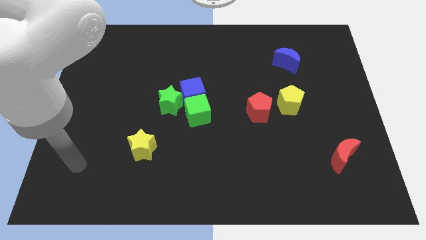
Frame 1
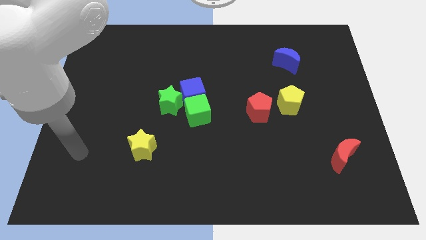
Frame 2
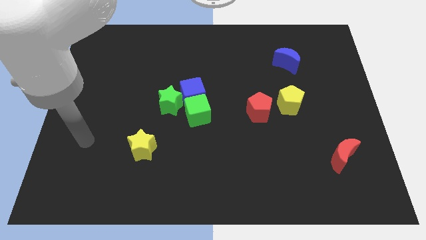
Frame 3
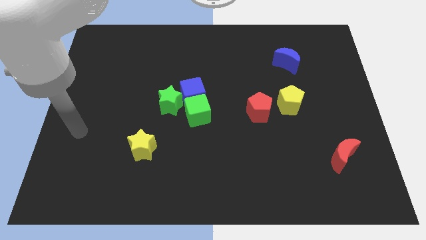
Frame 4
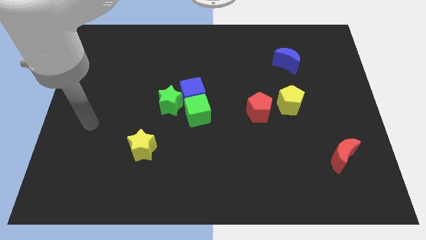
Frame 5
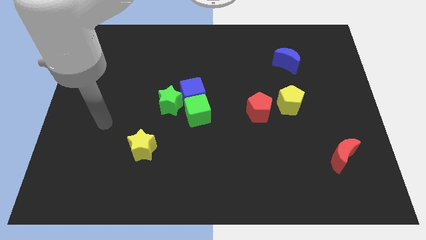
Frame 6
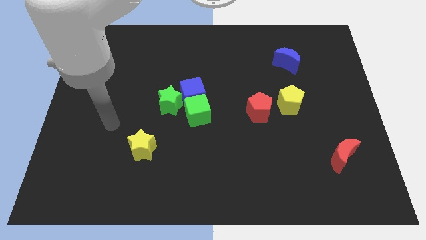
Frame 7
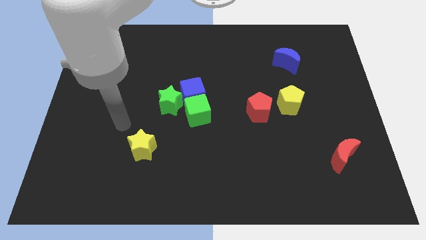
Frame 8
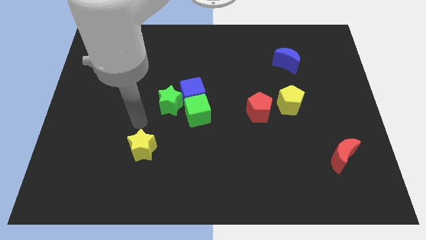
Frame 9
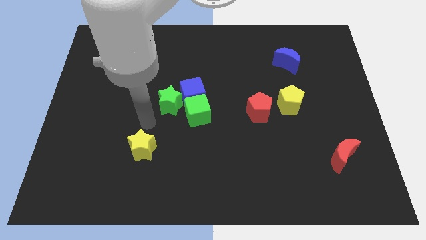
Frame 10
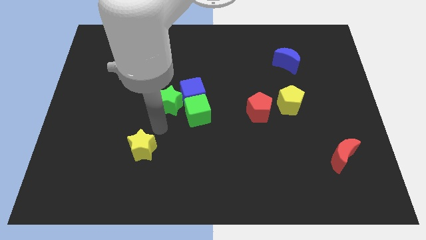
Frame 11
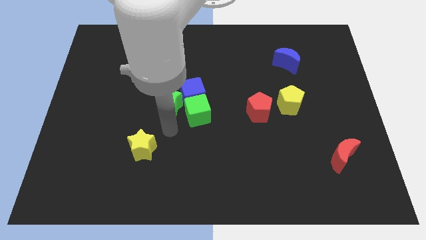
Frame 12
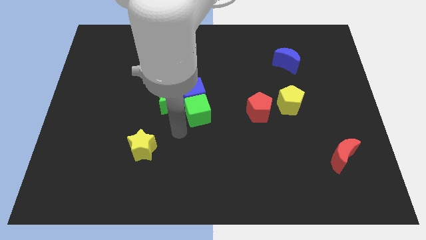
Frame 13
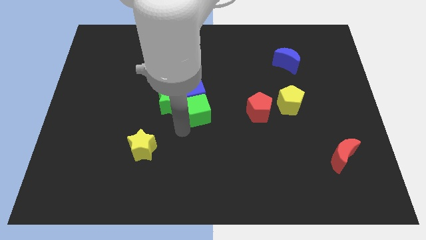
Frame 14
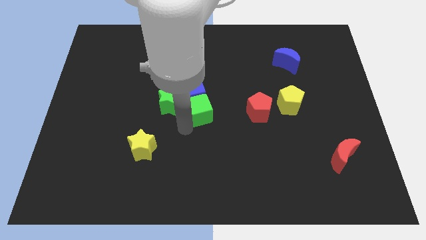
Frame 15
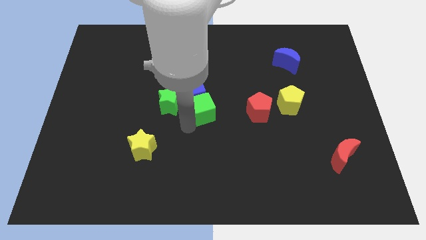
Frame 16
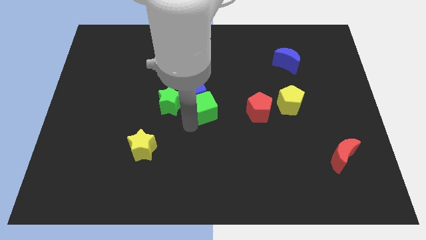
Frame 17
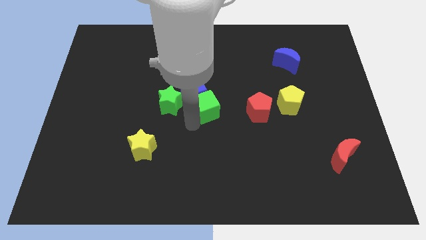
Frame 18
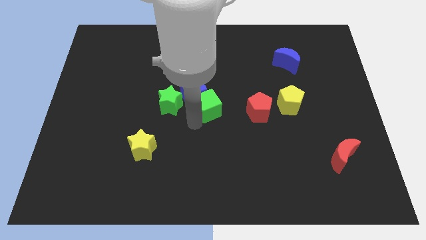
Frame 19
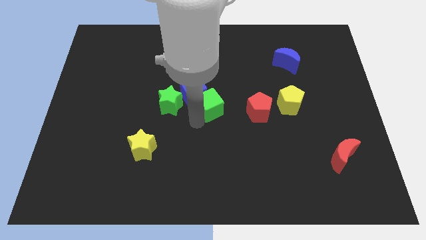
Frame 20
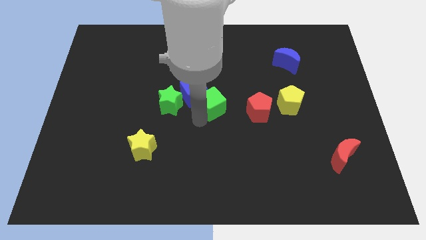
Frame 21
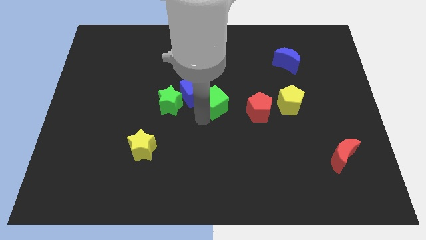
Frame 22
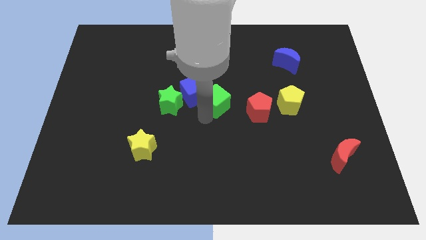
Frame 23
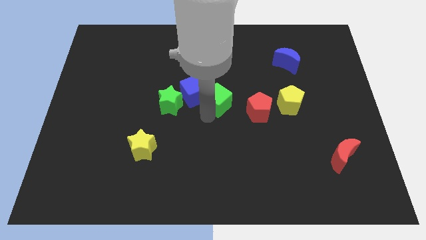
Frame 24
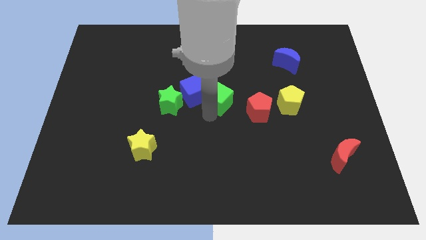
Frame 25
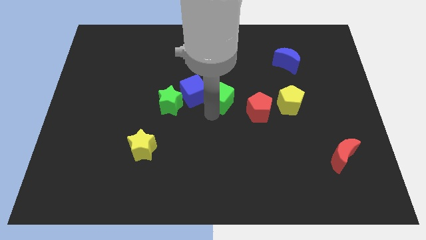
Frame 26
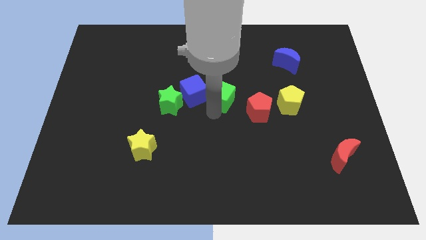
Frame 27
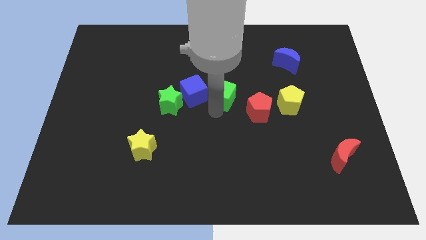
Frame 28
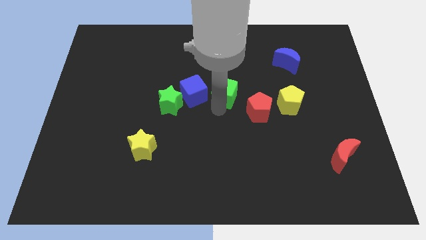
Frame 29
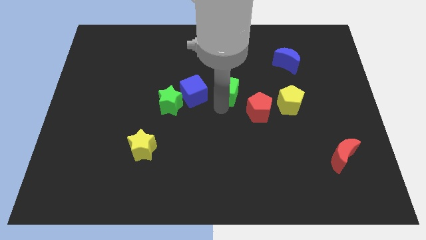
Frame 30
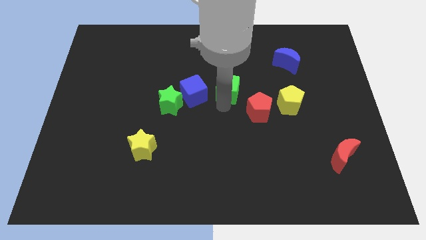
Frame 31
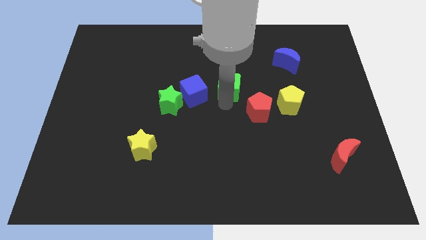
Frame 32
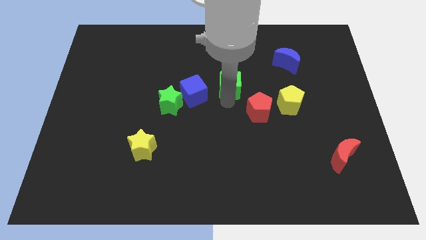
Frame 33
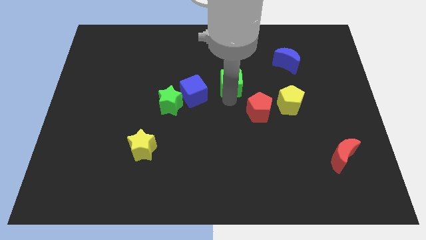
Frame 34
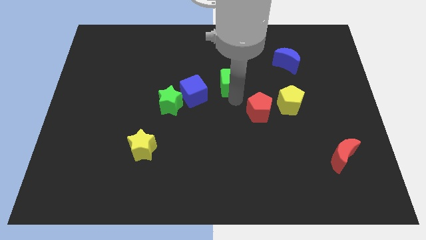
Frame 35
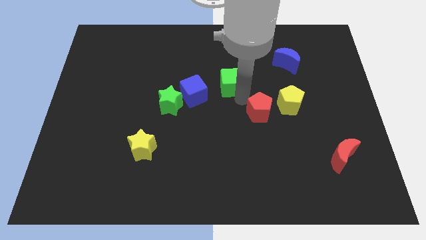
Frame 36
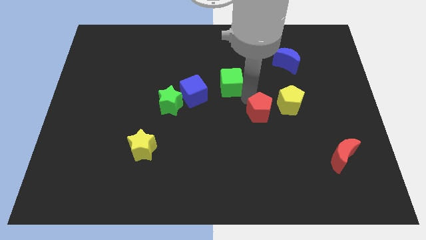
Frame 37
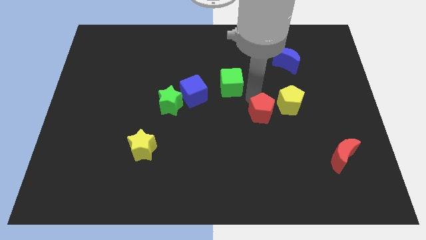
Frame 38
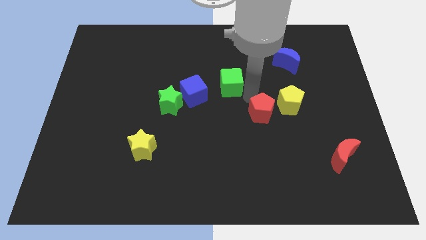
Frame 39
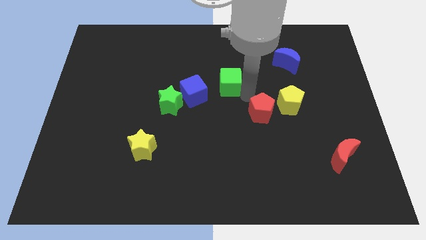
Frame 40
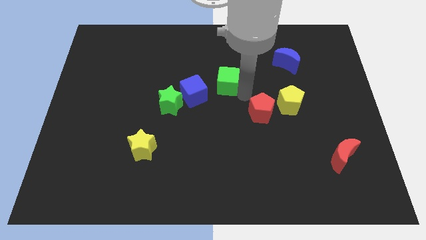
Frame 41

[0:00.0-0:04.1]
move the green cube somewhat up

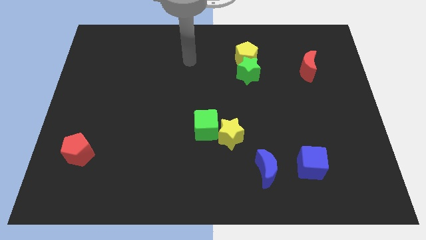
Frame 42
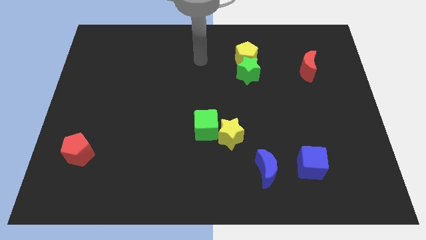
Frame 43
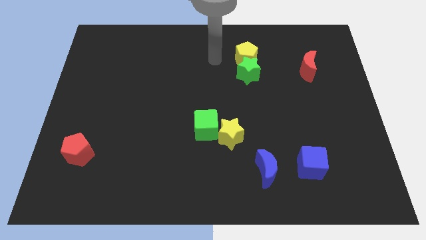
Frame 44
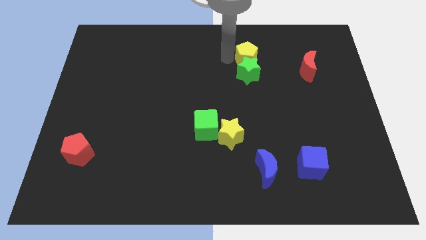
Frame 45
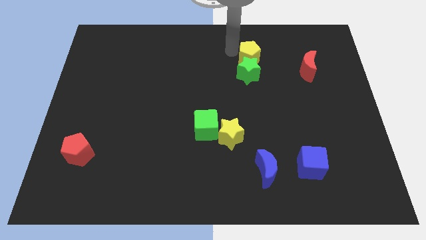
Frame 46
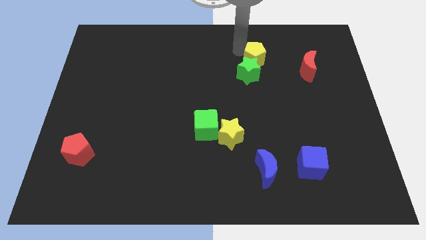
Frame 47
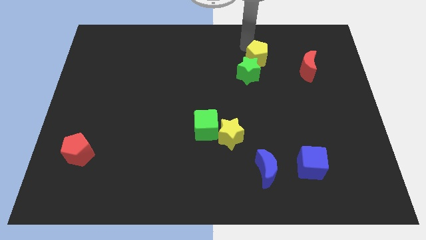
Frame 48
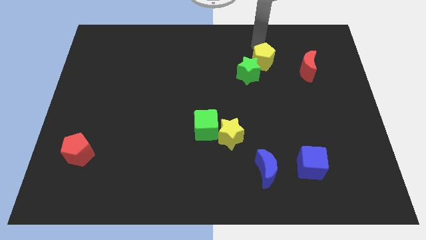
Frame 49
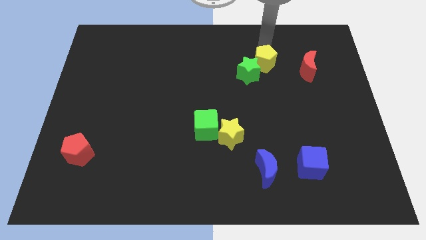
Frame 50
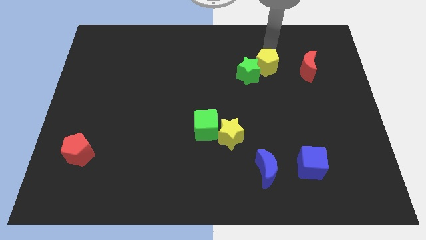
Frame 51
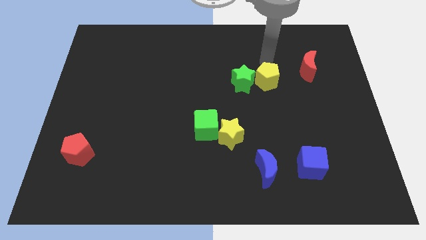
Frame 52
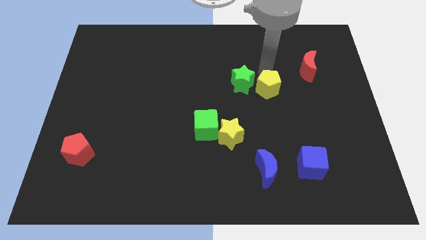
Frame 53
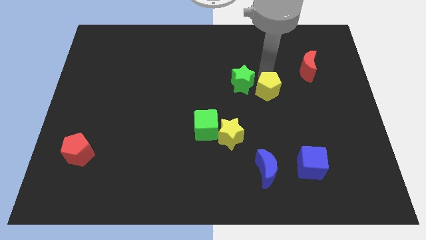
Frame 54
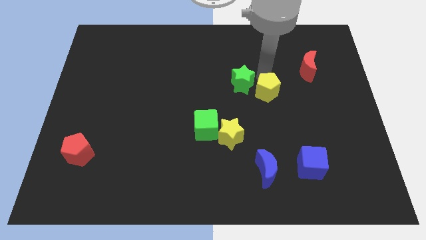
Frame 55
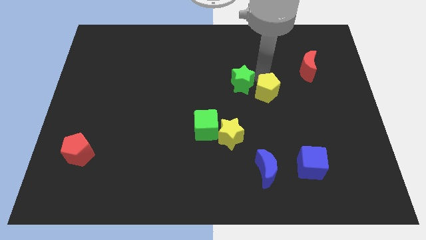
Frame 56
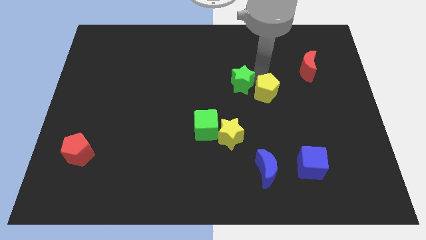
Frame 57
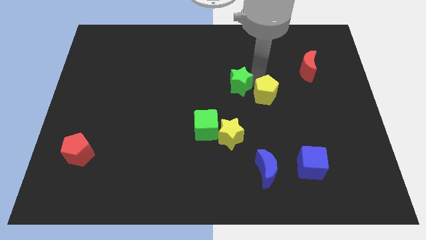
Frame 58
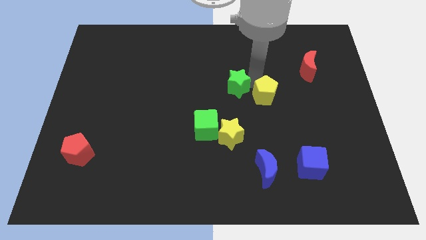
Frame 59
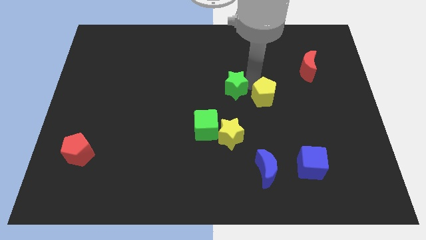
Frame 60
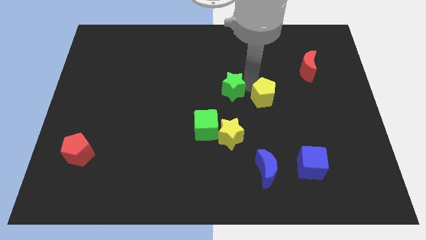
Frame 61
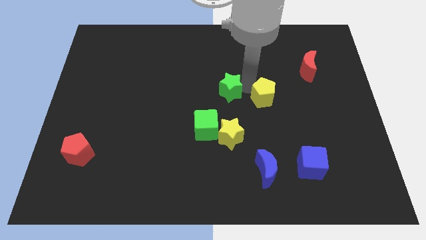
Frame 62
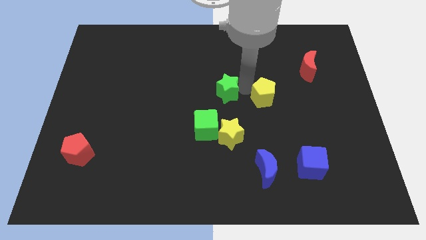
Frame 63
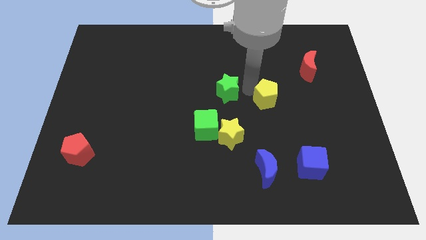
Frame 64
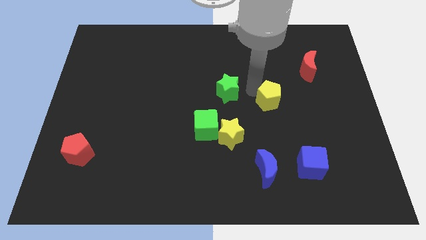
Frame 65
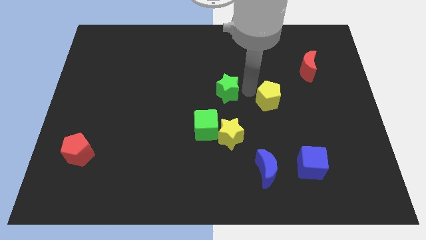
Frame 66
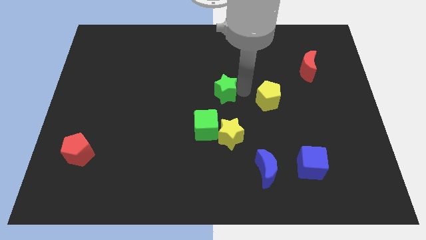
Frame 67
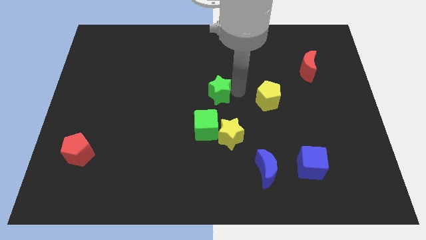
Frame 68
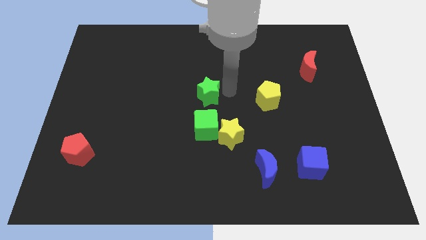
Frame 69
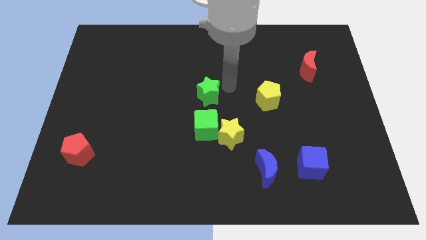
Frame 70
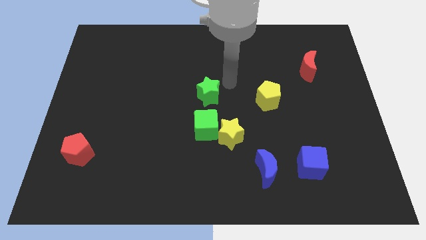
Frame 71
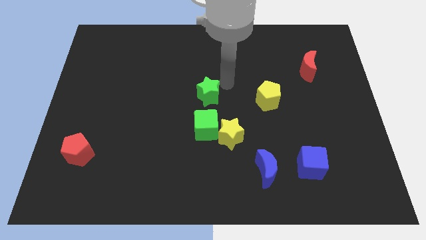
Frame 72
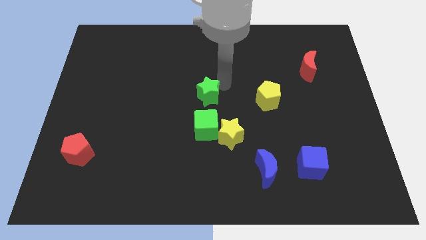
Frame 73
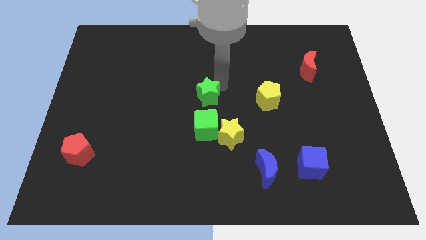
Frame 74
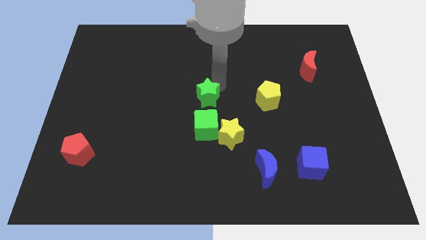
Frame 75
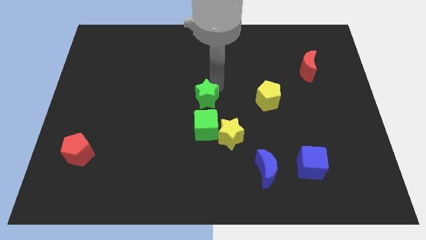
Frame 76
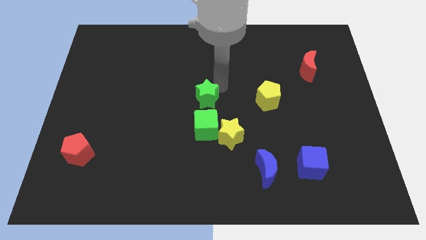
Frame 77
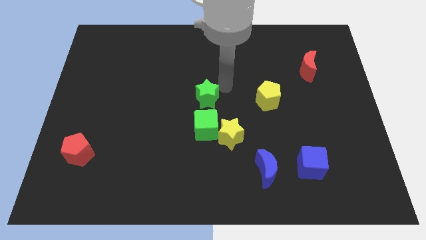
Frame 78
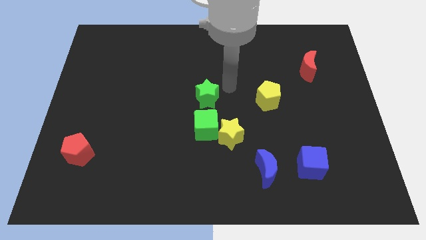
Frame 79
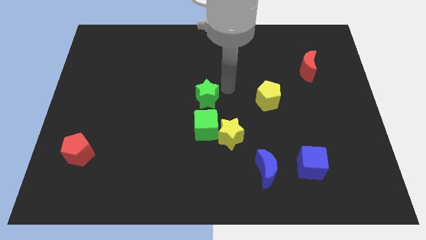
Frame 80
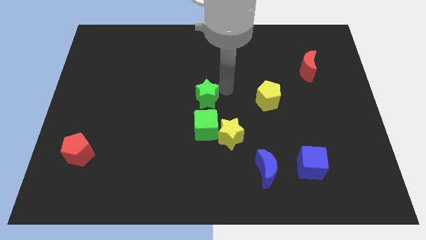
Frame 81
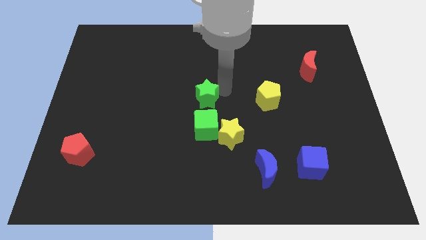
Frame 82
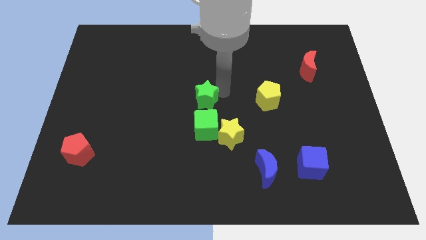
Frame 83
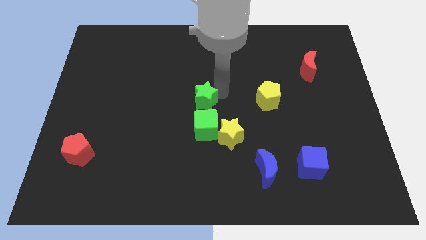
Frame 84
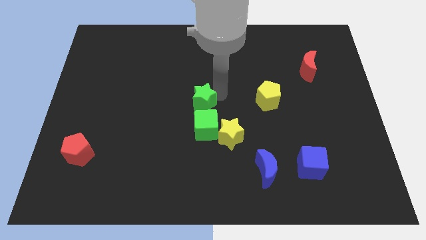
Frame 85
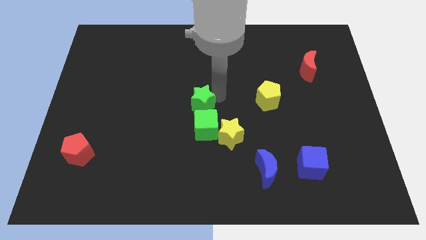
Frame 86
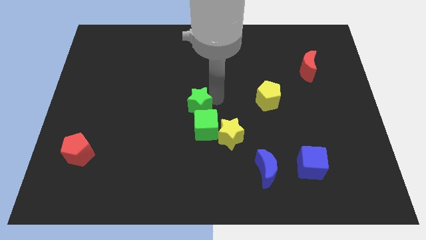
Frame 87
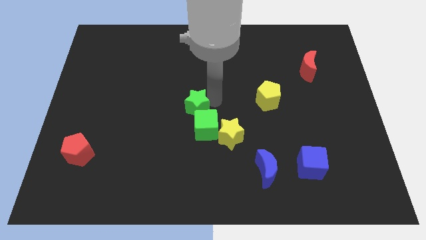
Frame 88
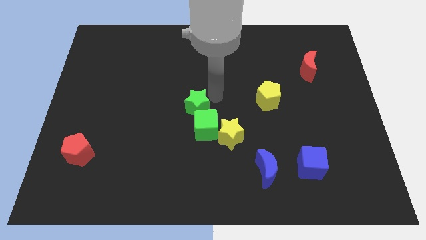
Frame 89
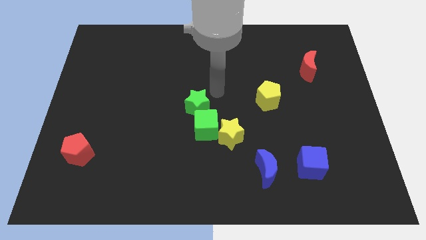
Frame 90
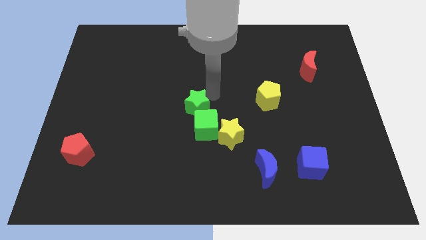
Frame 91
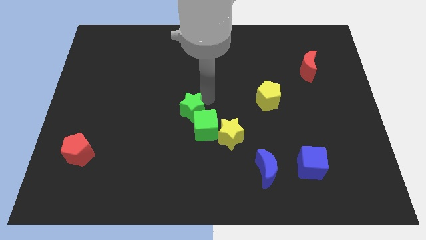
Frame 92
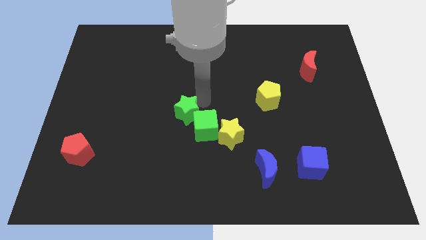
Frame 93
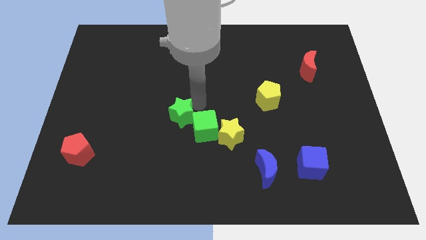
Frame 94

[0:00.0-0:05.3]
push the green star downwards and then left
